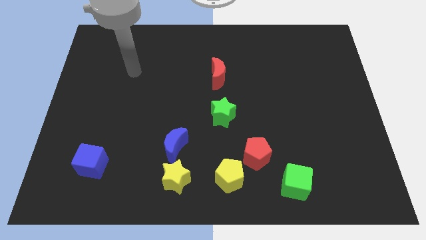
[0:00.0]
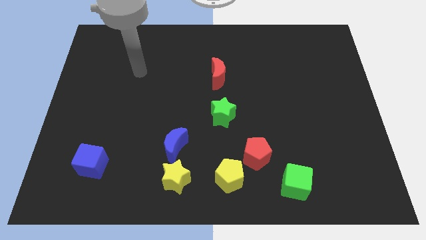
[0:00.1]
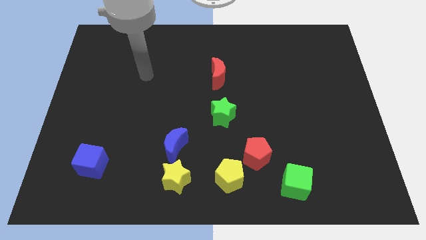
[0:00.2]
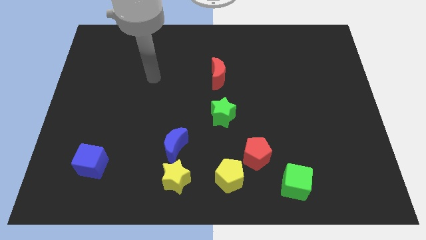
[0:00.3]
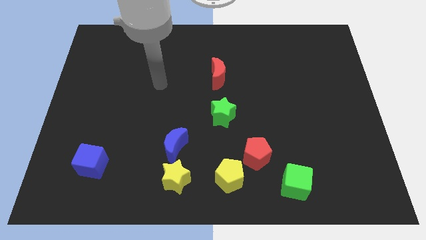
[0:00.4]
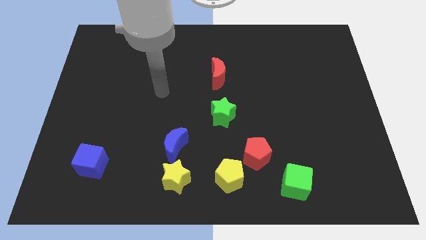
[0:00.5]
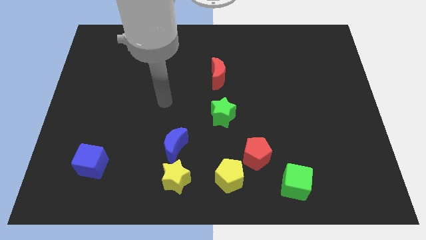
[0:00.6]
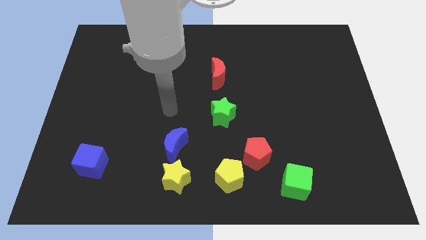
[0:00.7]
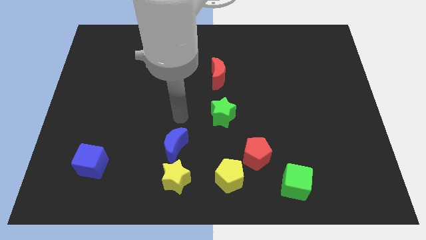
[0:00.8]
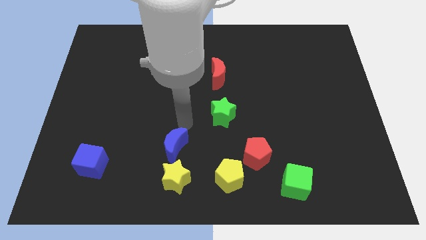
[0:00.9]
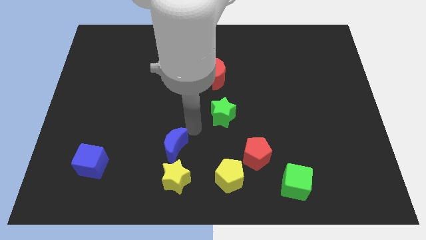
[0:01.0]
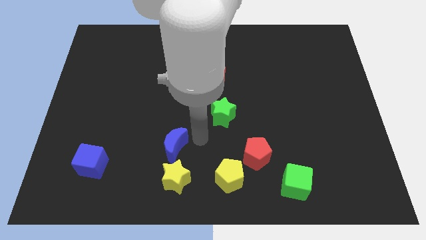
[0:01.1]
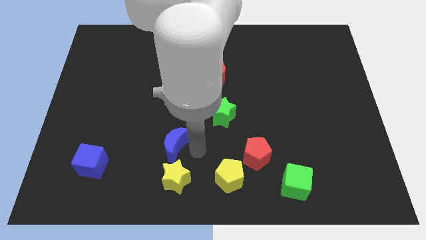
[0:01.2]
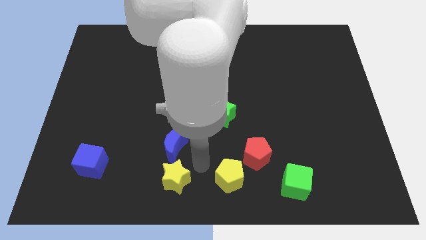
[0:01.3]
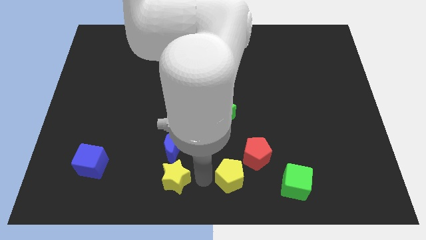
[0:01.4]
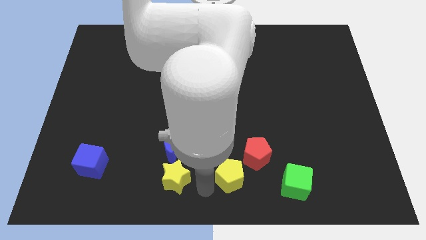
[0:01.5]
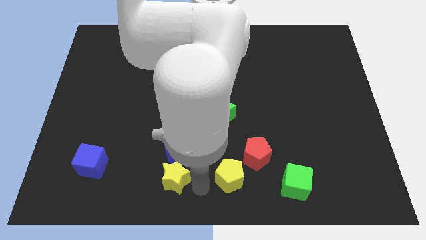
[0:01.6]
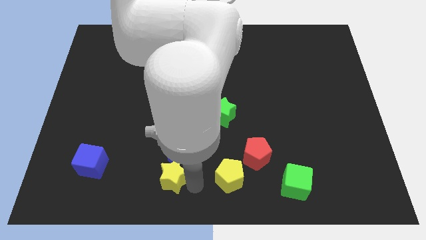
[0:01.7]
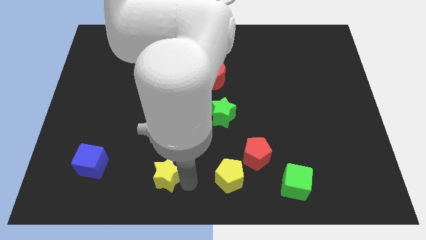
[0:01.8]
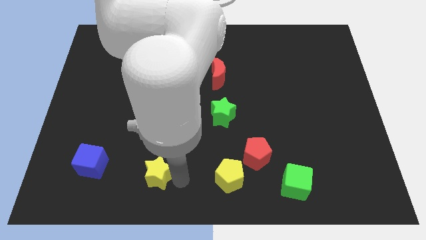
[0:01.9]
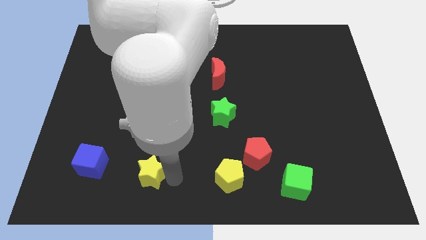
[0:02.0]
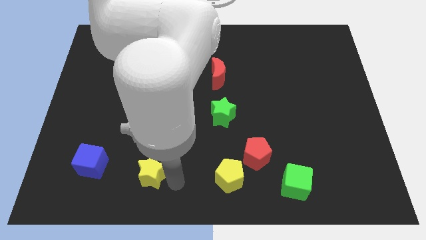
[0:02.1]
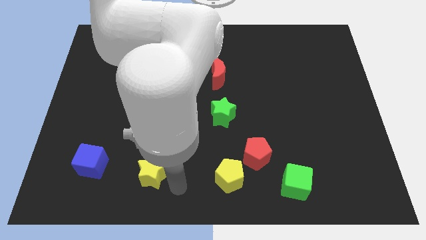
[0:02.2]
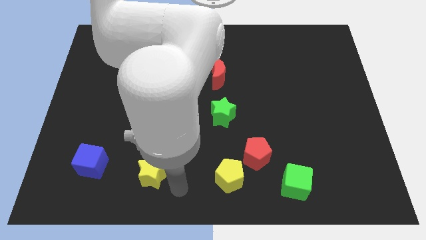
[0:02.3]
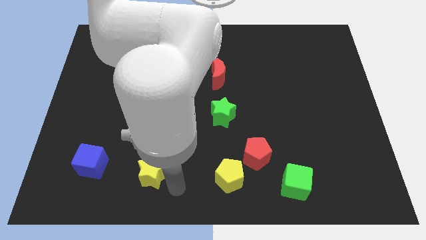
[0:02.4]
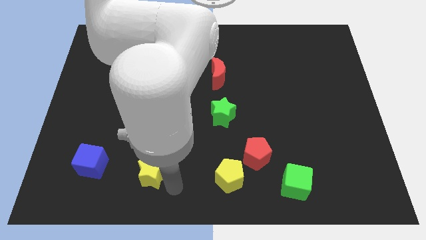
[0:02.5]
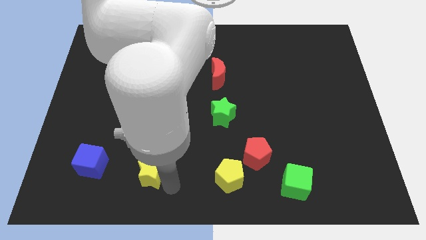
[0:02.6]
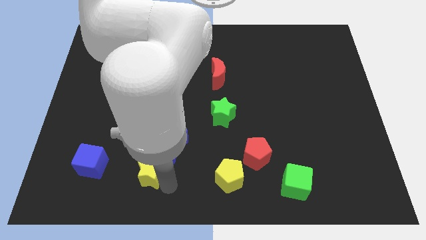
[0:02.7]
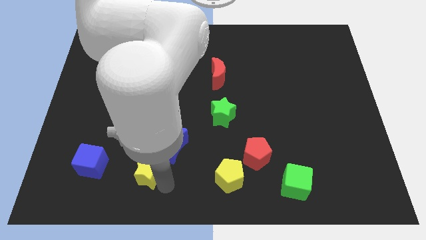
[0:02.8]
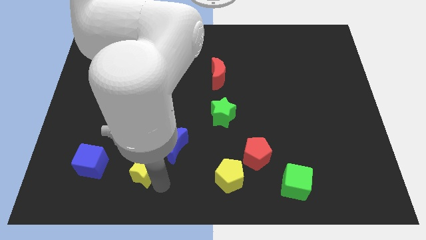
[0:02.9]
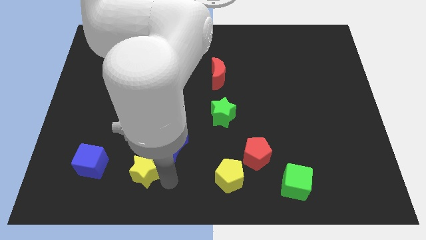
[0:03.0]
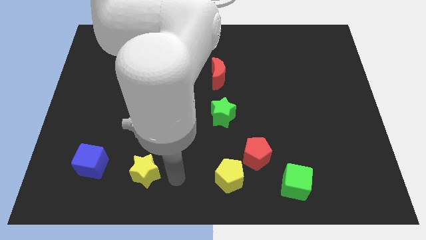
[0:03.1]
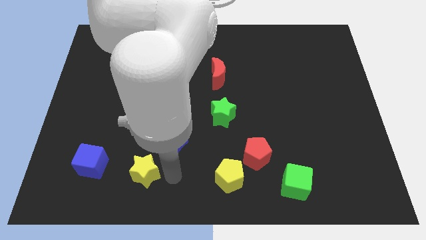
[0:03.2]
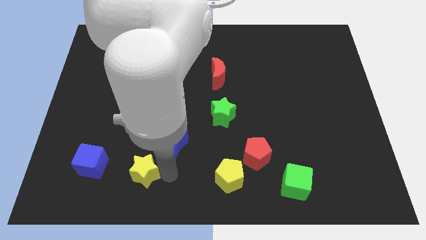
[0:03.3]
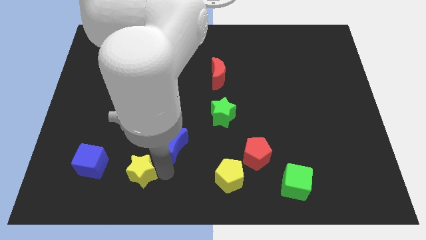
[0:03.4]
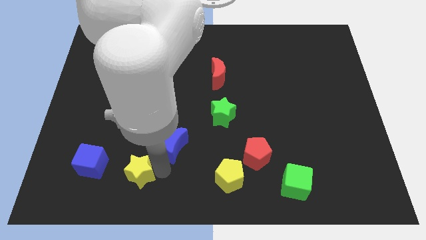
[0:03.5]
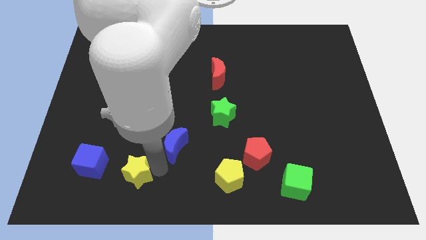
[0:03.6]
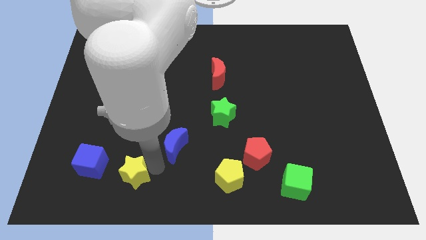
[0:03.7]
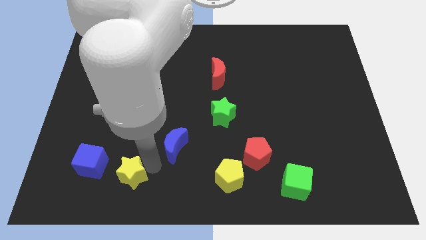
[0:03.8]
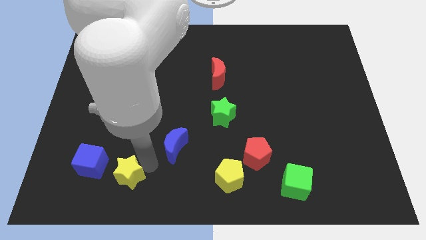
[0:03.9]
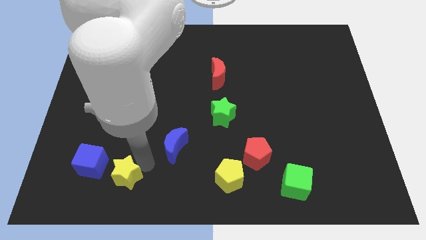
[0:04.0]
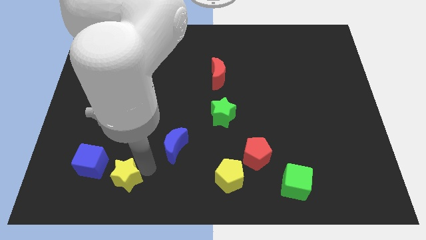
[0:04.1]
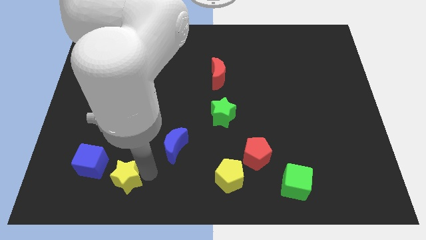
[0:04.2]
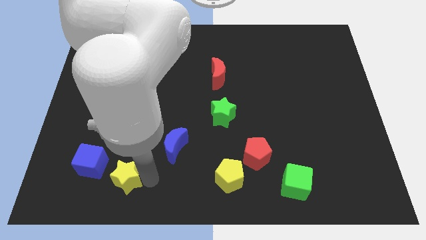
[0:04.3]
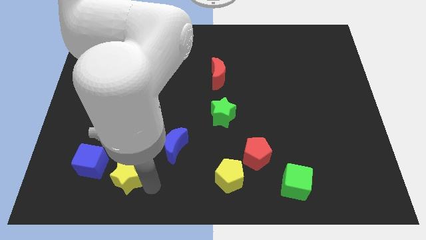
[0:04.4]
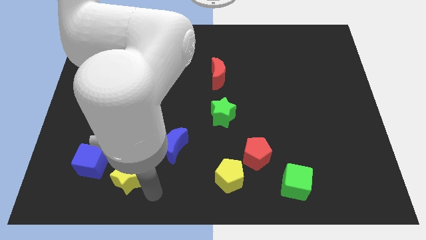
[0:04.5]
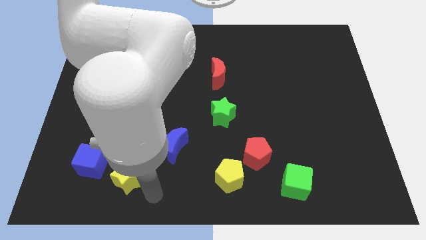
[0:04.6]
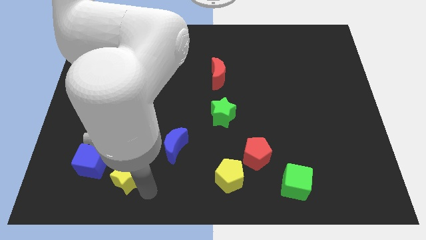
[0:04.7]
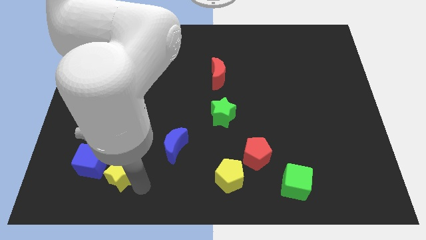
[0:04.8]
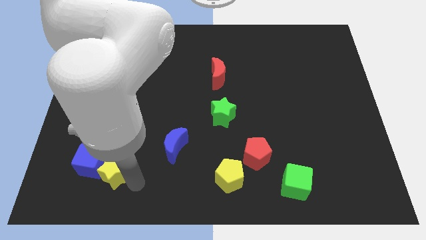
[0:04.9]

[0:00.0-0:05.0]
push the yellow star next to the blue cube

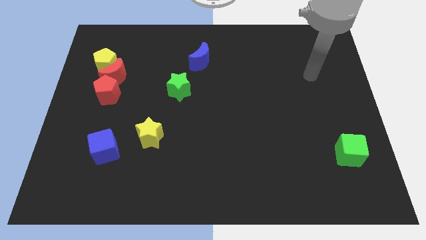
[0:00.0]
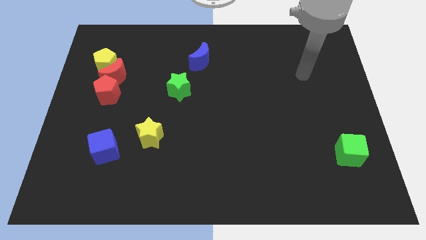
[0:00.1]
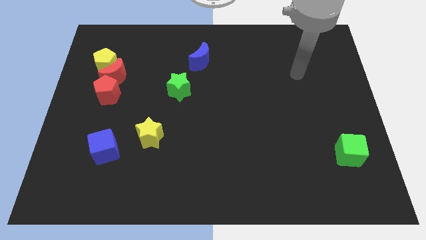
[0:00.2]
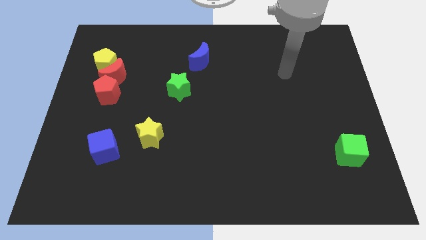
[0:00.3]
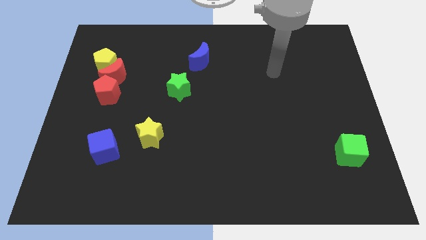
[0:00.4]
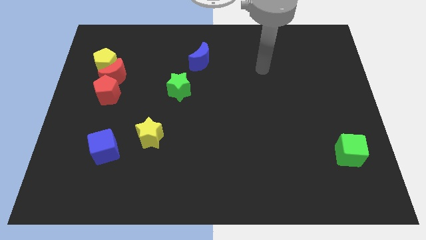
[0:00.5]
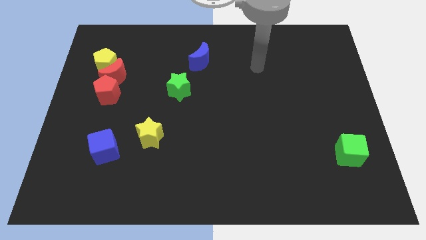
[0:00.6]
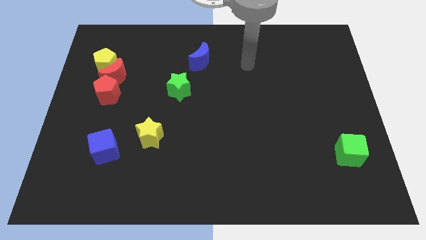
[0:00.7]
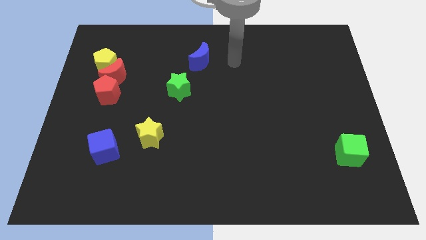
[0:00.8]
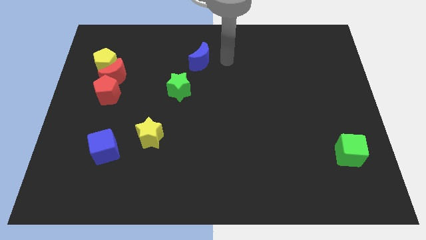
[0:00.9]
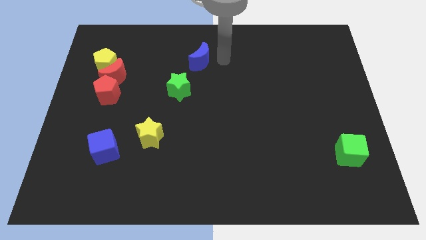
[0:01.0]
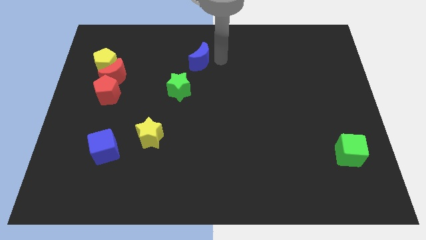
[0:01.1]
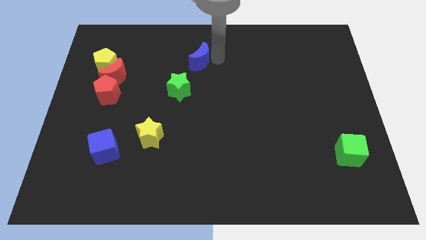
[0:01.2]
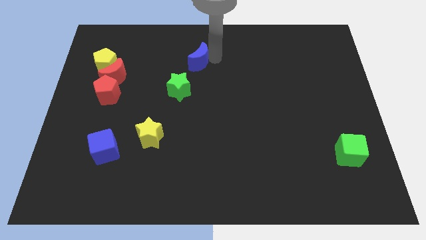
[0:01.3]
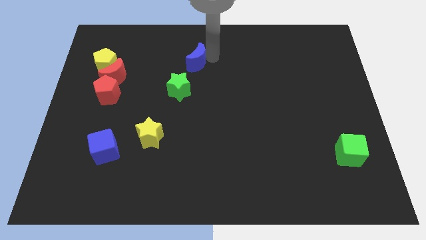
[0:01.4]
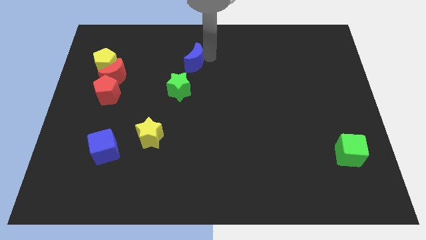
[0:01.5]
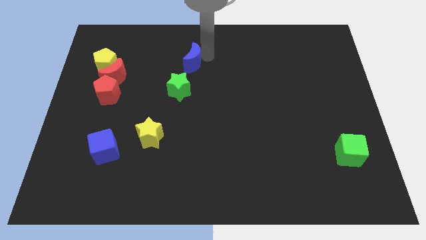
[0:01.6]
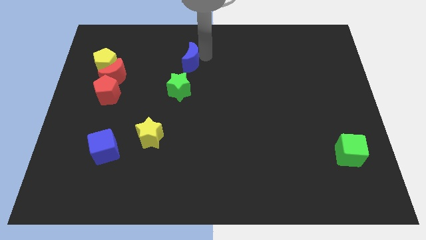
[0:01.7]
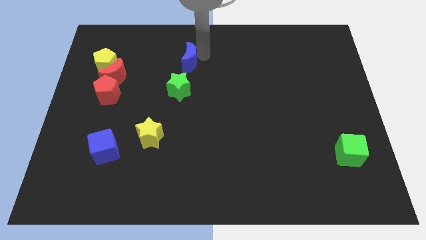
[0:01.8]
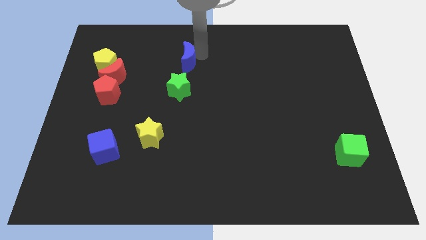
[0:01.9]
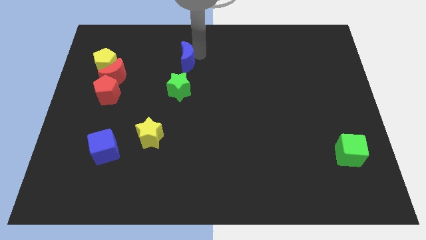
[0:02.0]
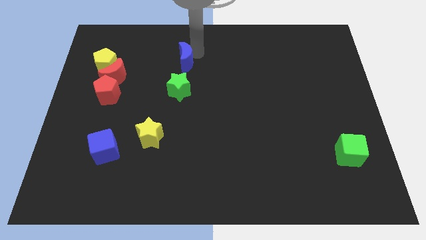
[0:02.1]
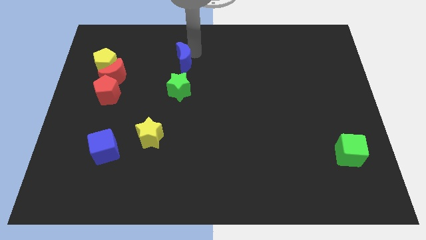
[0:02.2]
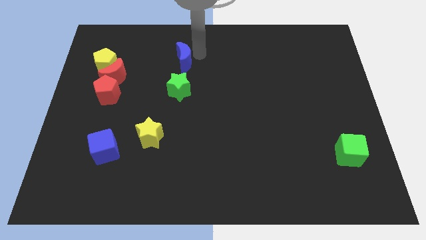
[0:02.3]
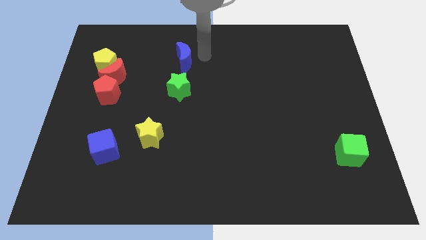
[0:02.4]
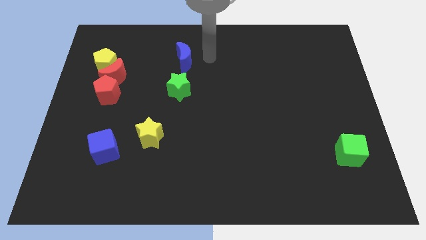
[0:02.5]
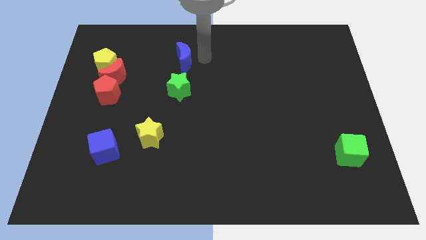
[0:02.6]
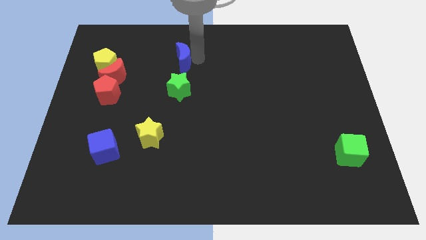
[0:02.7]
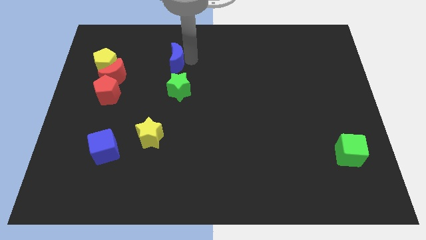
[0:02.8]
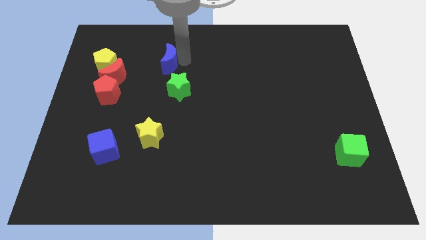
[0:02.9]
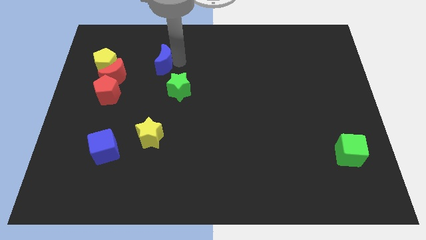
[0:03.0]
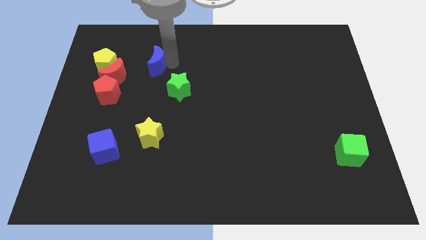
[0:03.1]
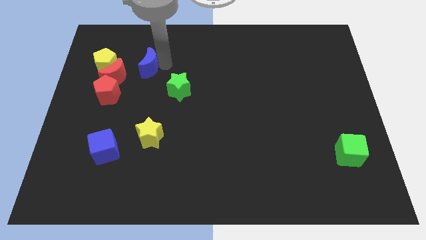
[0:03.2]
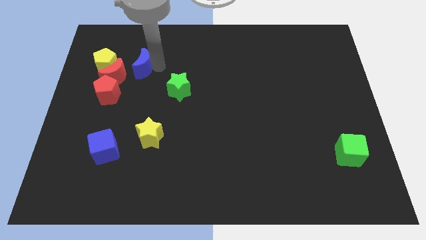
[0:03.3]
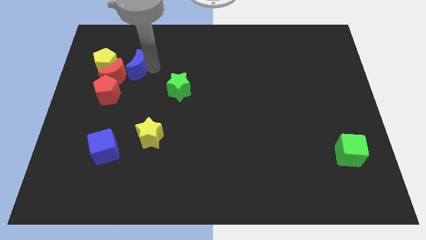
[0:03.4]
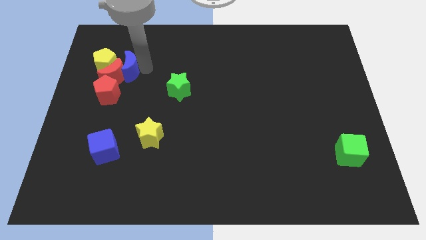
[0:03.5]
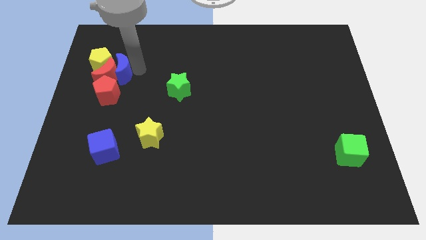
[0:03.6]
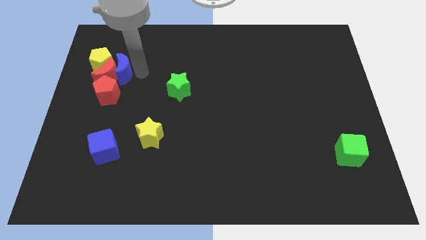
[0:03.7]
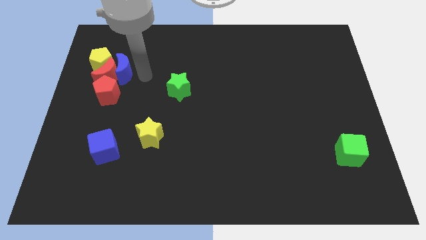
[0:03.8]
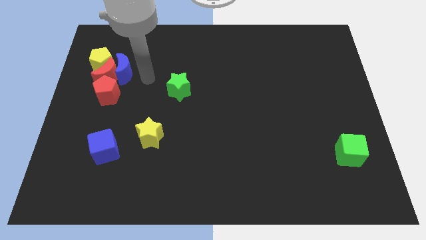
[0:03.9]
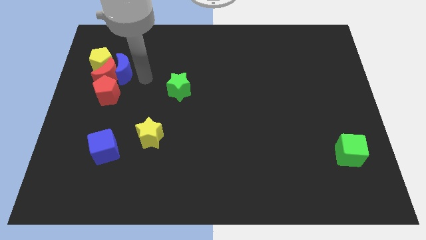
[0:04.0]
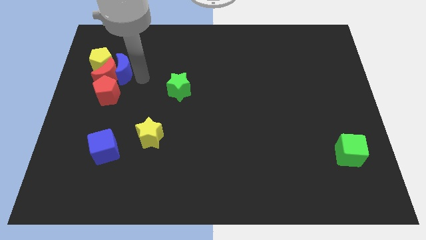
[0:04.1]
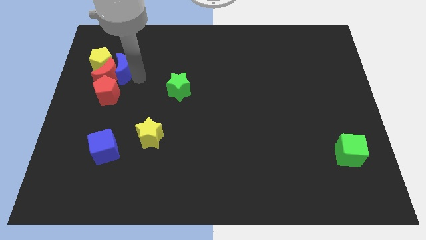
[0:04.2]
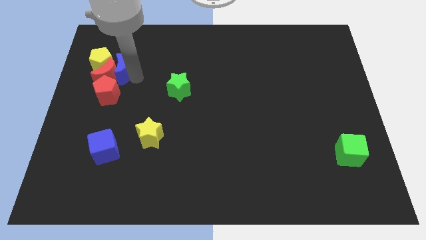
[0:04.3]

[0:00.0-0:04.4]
slide the blue moon next to the yellow pentagon
